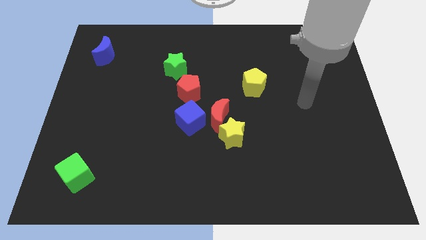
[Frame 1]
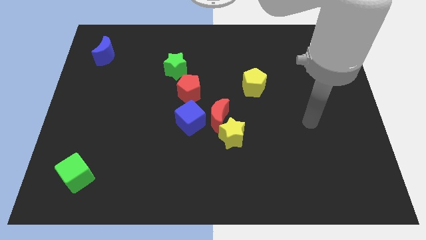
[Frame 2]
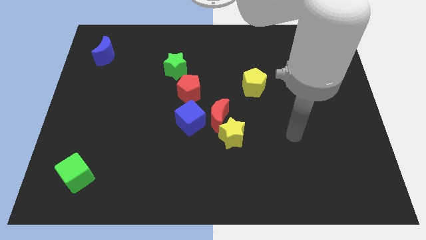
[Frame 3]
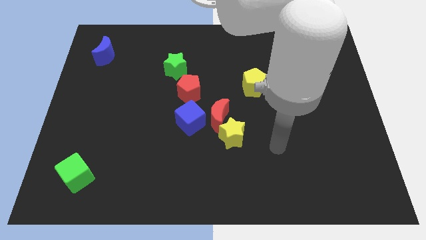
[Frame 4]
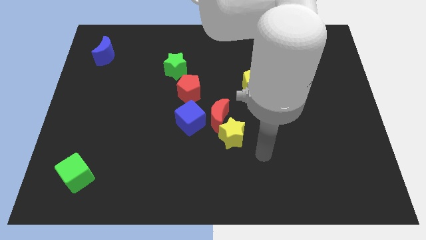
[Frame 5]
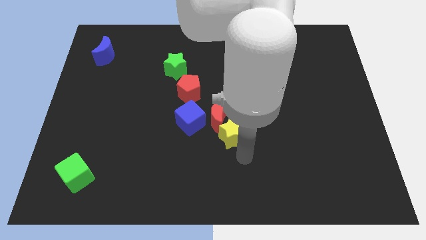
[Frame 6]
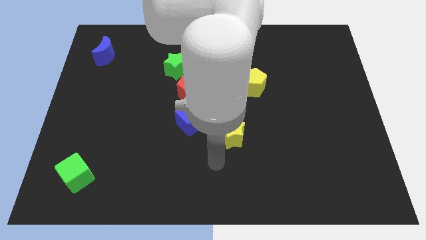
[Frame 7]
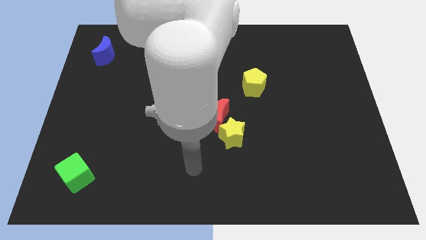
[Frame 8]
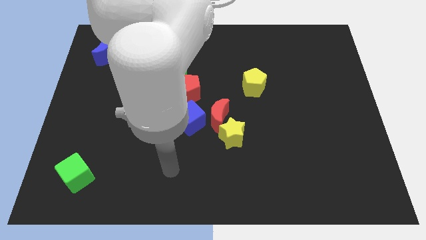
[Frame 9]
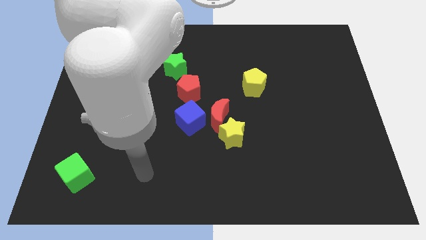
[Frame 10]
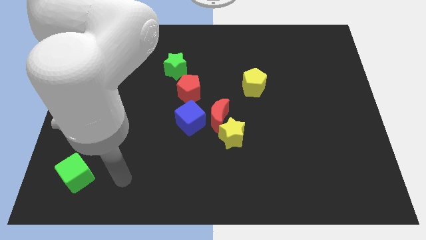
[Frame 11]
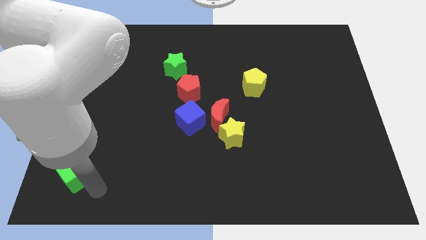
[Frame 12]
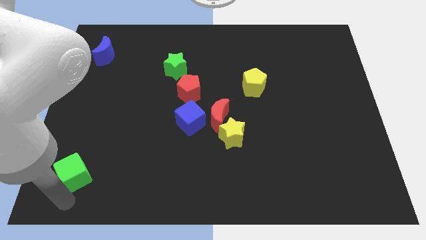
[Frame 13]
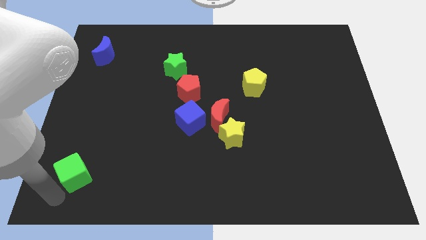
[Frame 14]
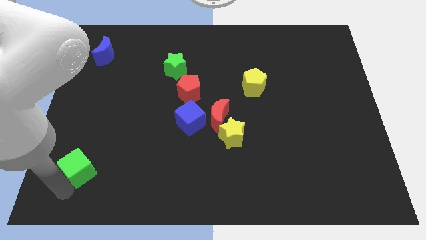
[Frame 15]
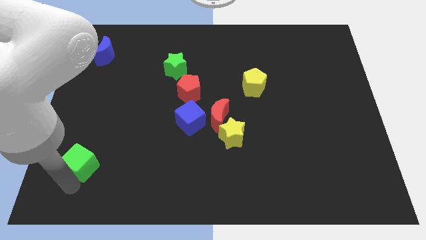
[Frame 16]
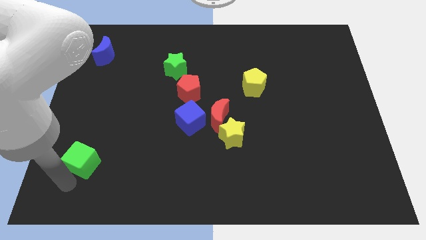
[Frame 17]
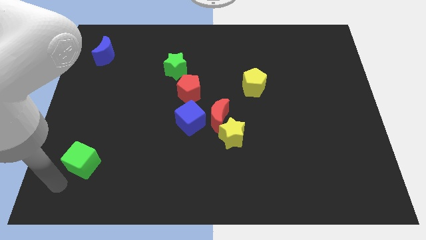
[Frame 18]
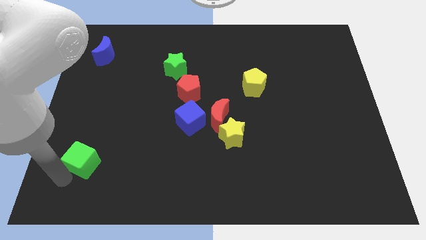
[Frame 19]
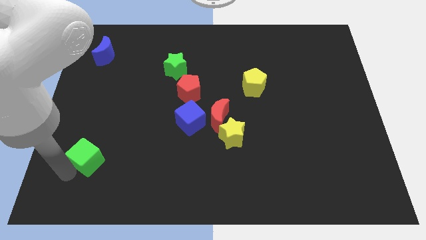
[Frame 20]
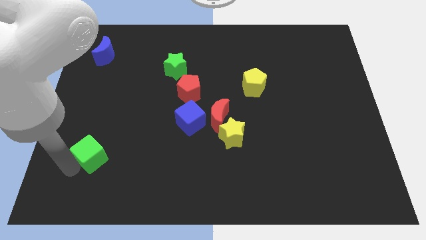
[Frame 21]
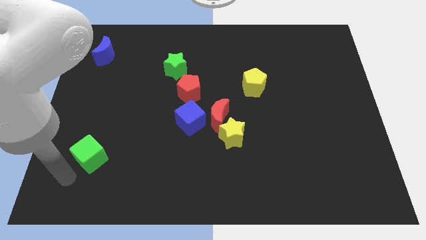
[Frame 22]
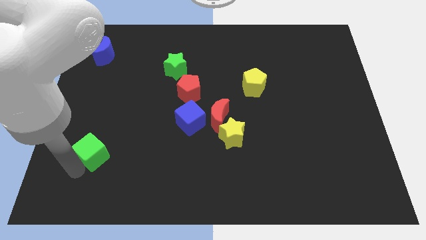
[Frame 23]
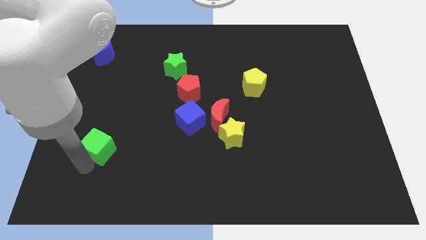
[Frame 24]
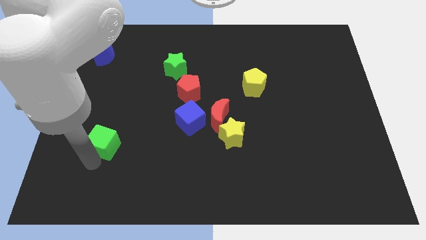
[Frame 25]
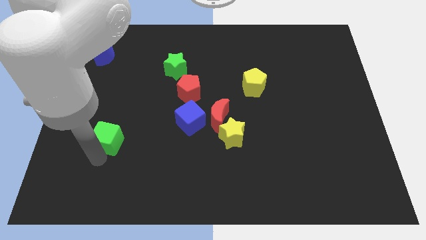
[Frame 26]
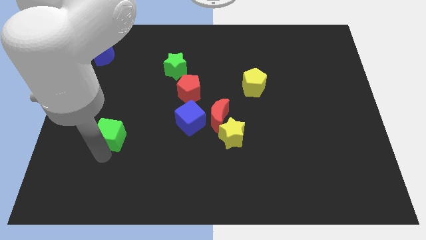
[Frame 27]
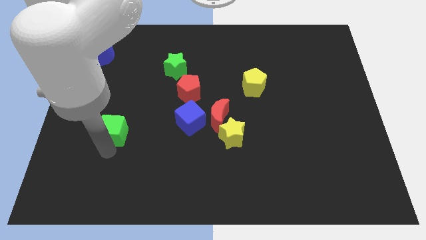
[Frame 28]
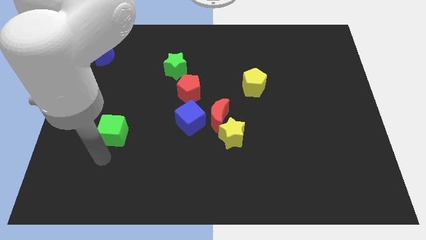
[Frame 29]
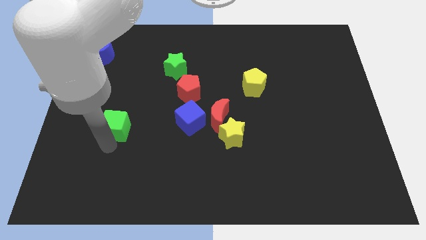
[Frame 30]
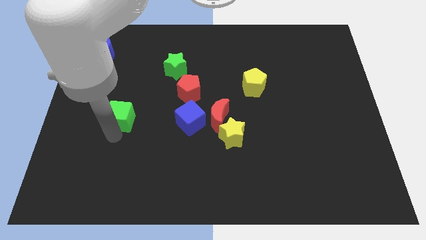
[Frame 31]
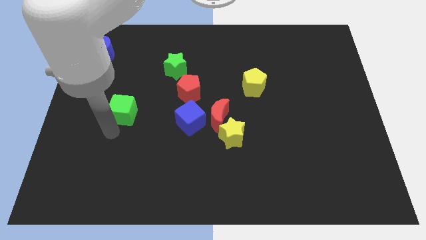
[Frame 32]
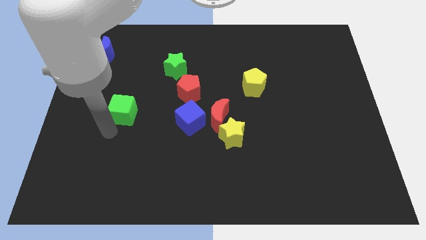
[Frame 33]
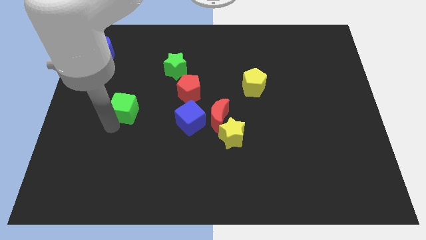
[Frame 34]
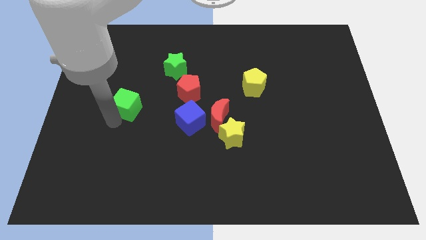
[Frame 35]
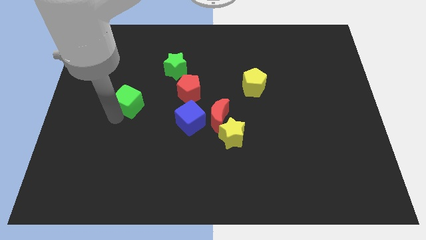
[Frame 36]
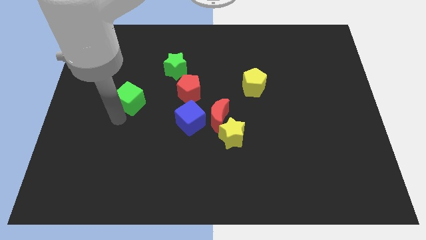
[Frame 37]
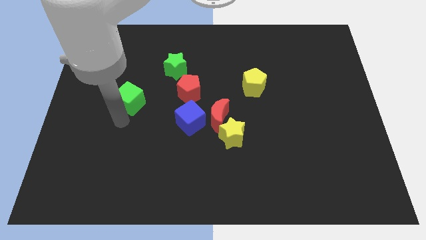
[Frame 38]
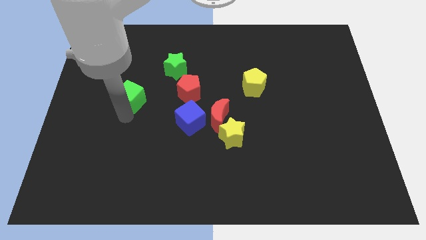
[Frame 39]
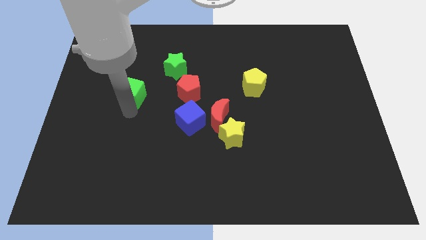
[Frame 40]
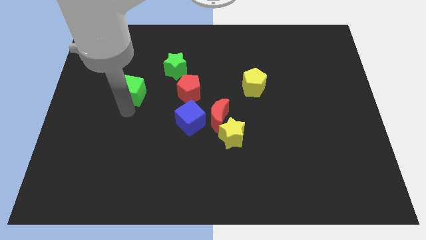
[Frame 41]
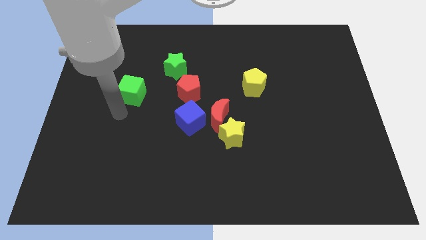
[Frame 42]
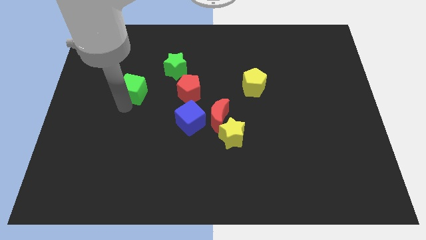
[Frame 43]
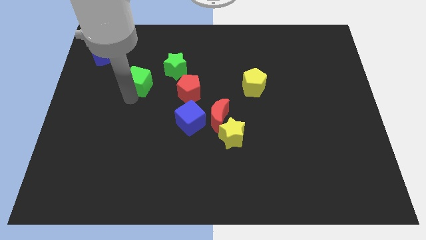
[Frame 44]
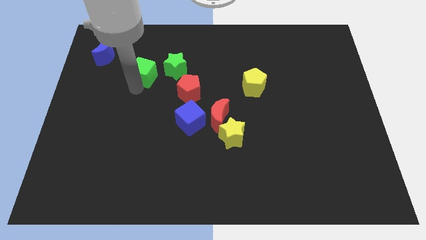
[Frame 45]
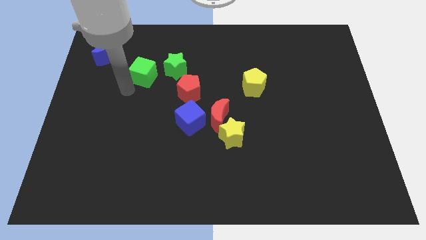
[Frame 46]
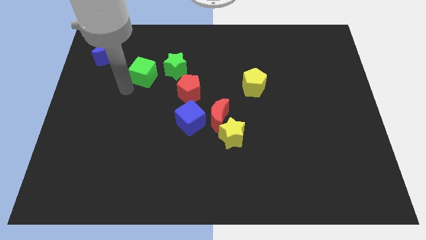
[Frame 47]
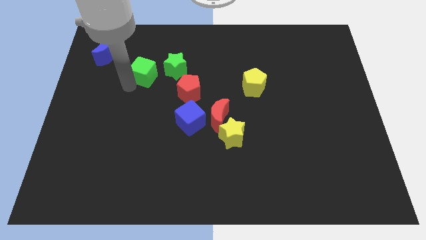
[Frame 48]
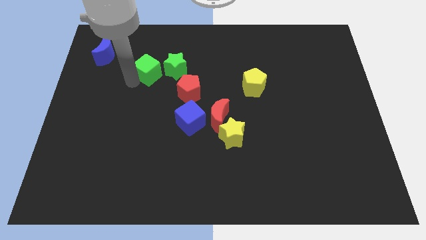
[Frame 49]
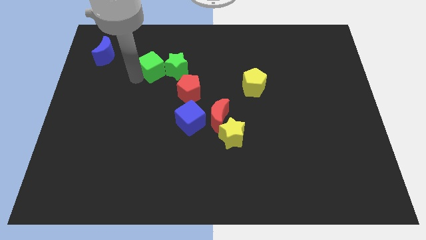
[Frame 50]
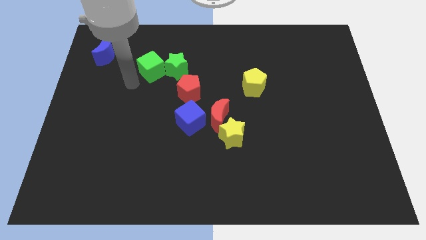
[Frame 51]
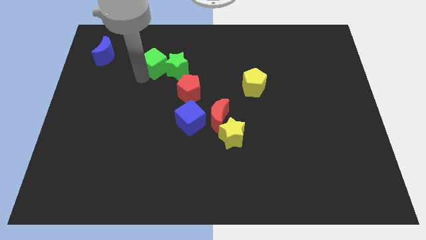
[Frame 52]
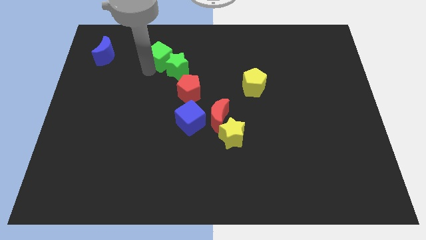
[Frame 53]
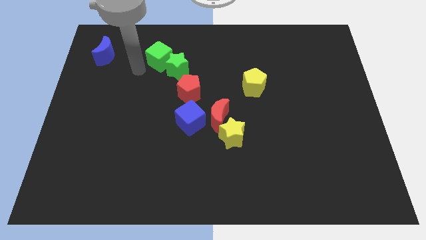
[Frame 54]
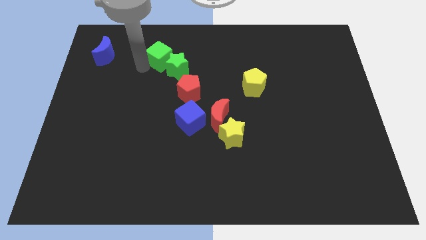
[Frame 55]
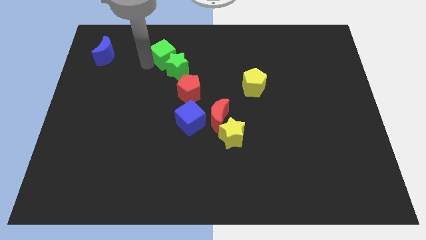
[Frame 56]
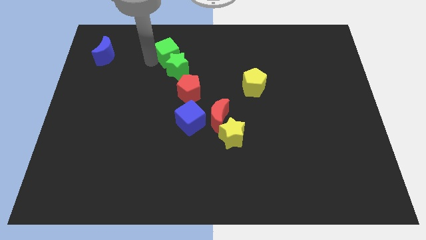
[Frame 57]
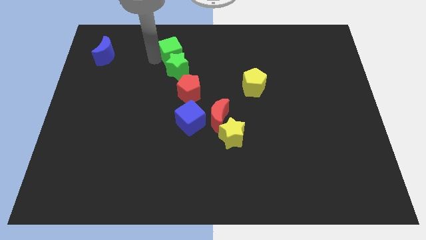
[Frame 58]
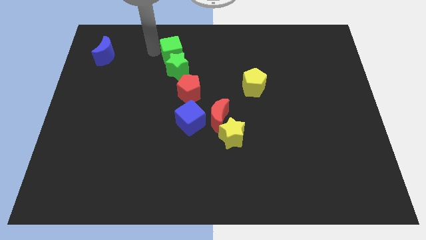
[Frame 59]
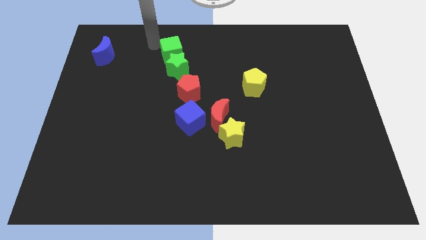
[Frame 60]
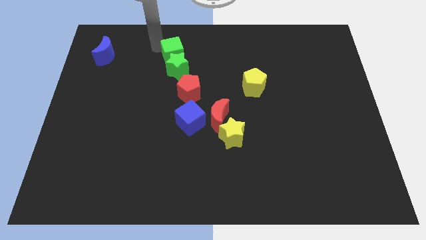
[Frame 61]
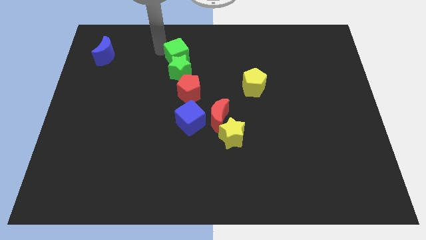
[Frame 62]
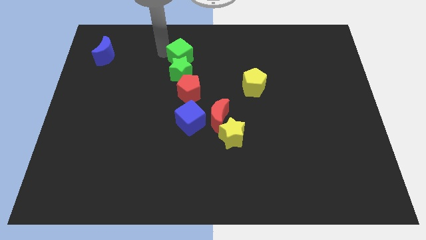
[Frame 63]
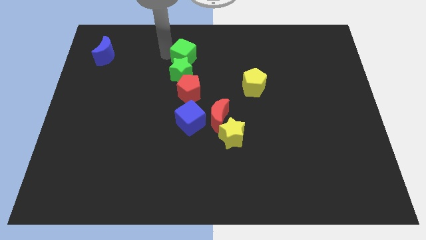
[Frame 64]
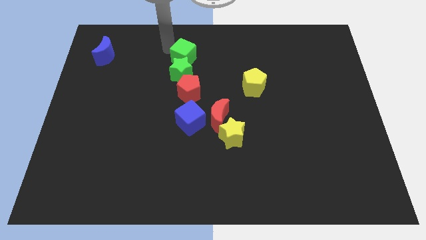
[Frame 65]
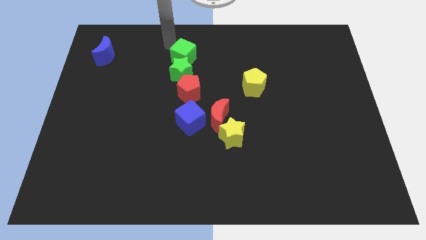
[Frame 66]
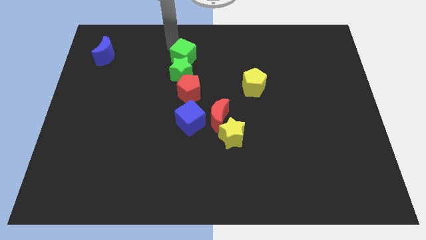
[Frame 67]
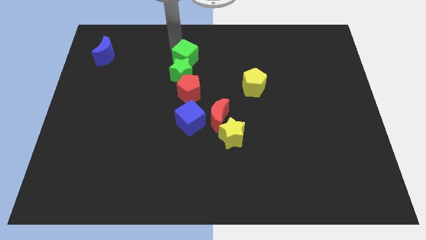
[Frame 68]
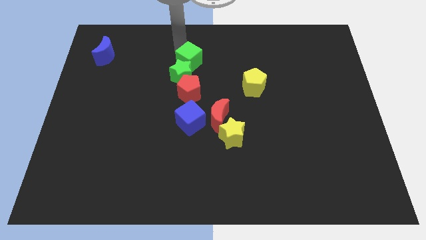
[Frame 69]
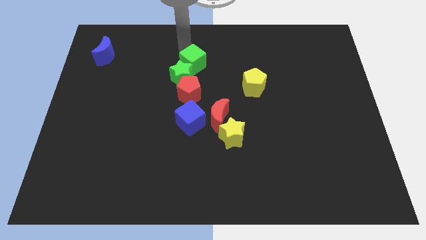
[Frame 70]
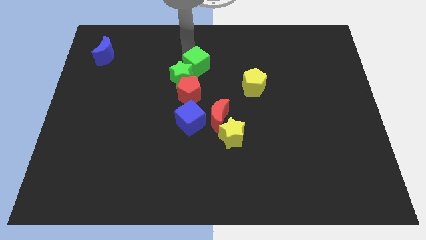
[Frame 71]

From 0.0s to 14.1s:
move the green cube to the center
